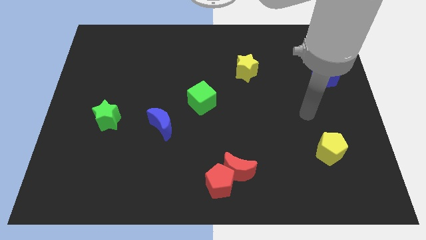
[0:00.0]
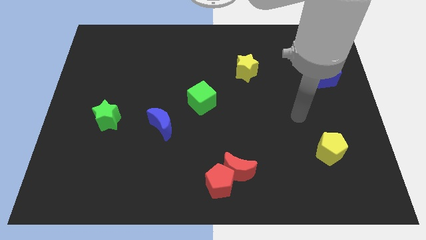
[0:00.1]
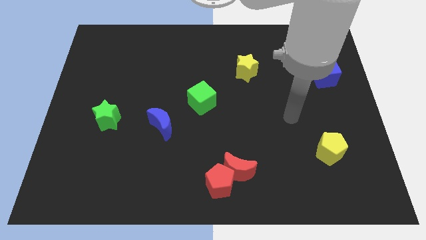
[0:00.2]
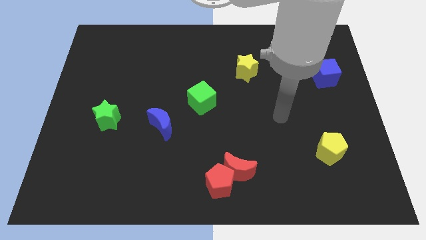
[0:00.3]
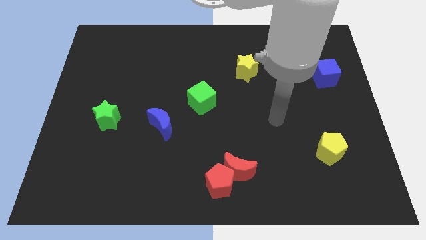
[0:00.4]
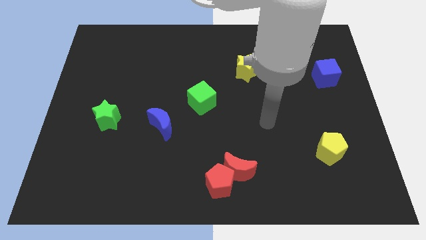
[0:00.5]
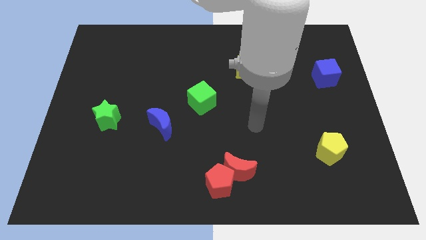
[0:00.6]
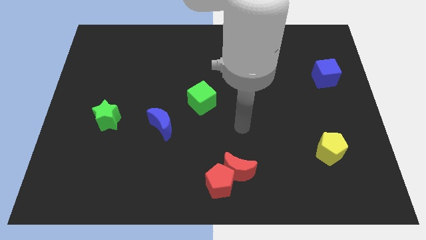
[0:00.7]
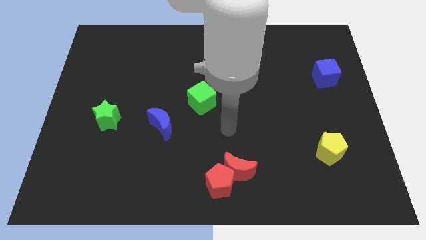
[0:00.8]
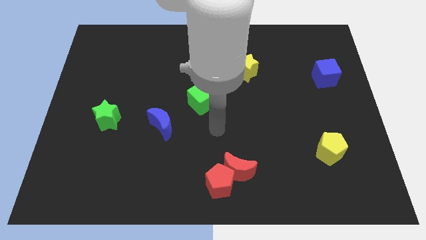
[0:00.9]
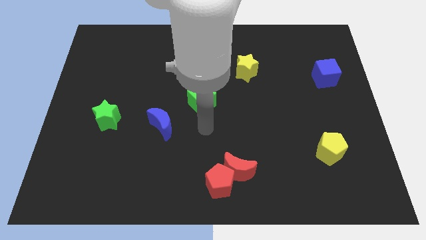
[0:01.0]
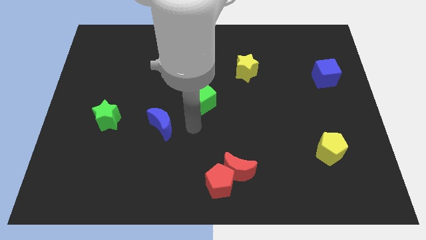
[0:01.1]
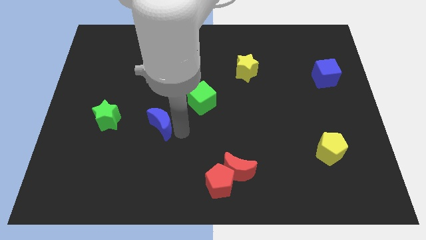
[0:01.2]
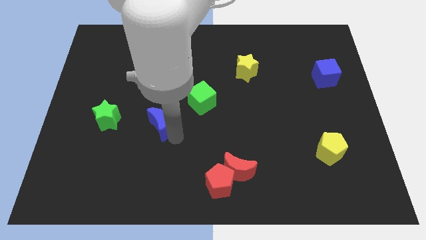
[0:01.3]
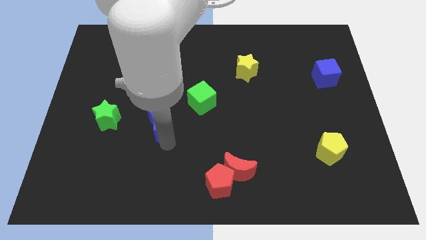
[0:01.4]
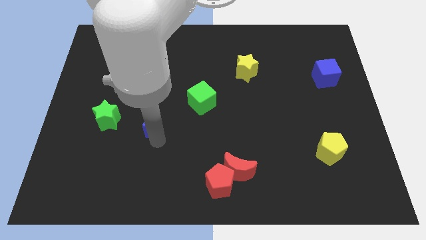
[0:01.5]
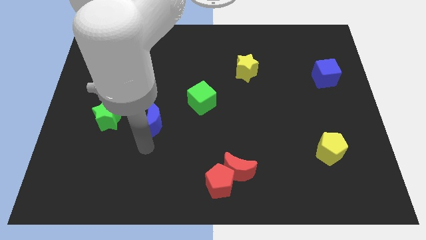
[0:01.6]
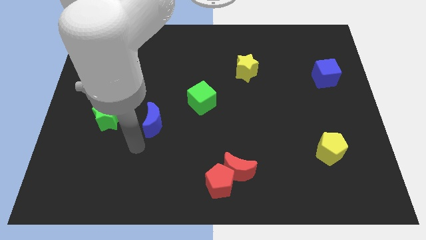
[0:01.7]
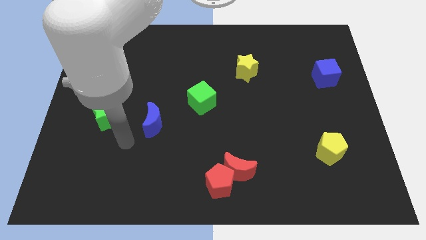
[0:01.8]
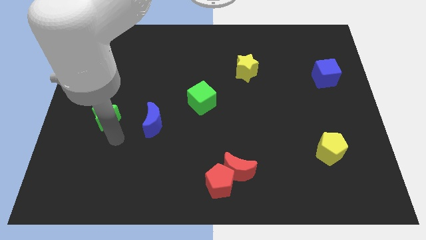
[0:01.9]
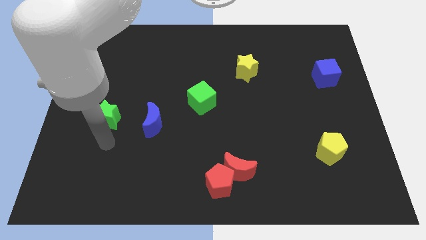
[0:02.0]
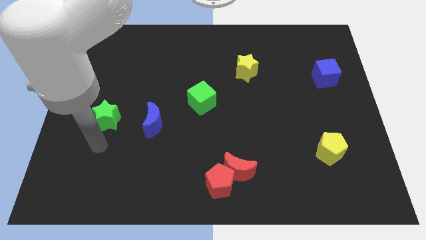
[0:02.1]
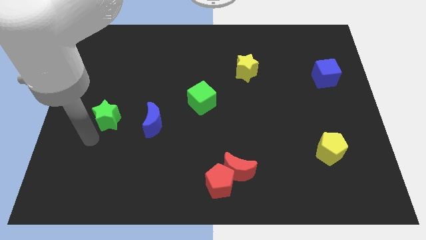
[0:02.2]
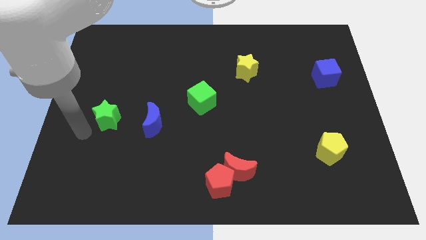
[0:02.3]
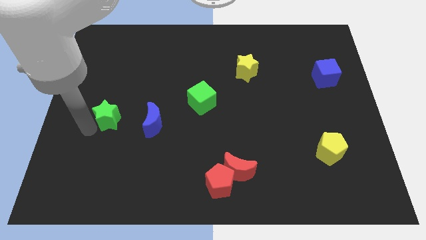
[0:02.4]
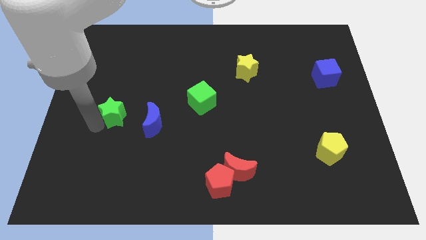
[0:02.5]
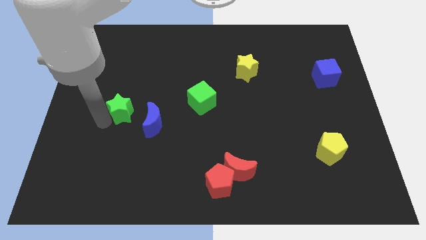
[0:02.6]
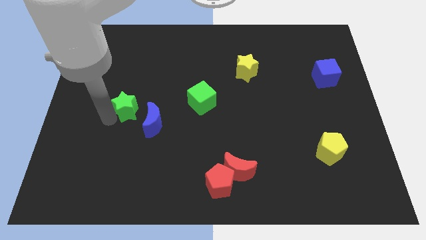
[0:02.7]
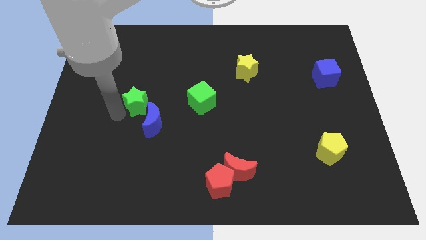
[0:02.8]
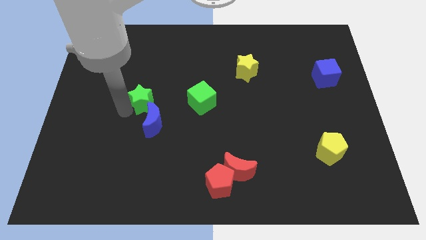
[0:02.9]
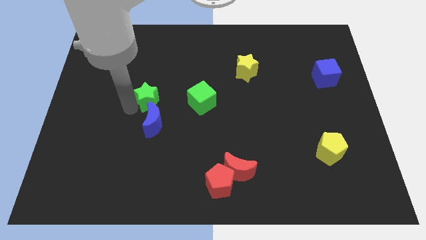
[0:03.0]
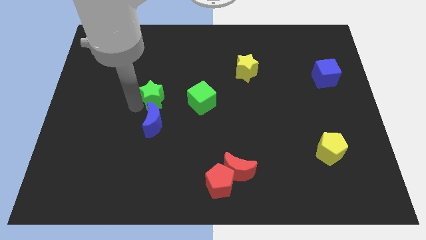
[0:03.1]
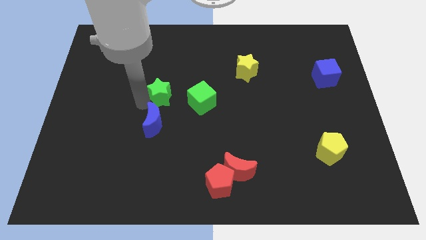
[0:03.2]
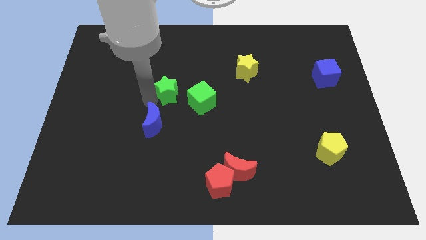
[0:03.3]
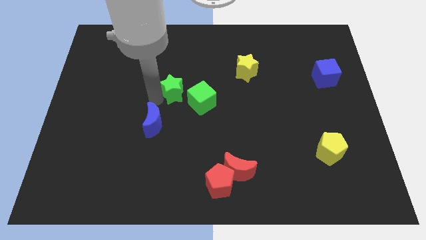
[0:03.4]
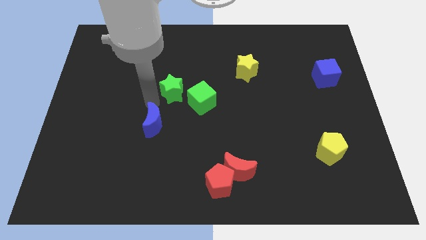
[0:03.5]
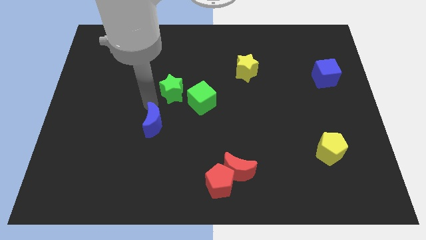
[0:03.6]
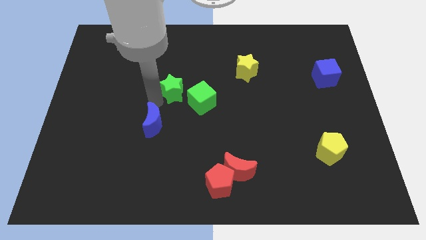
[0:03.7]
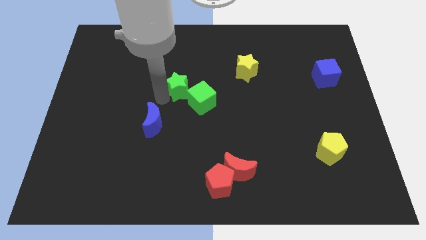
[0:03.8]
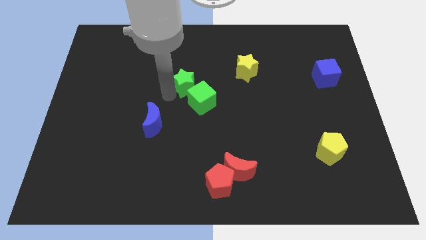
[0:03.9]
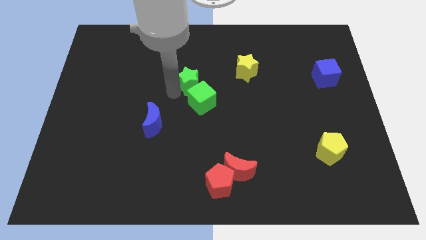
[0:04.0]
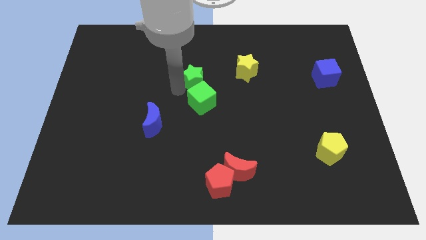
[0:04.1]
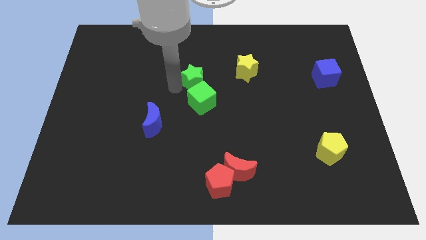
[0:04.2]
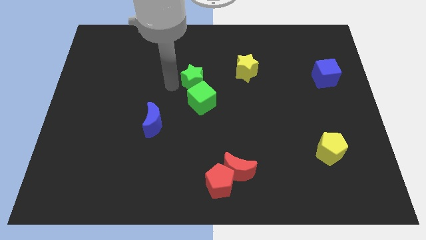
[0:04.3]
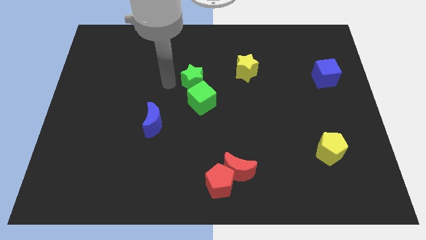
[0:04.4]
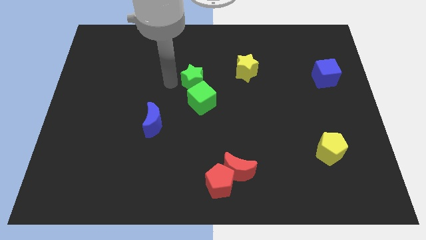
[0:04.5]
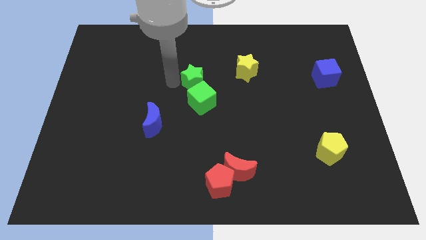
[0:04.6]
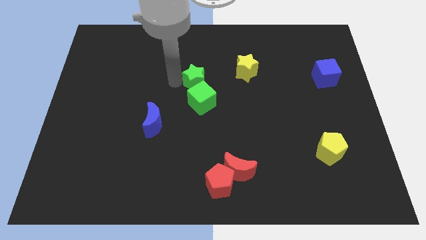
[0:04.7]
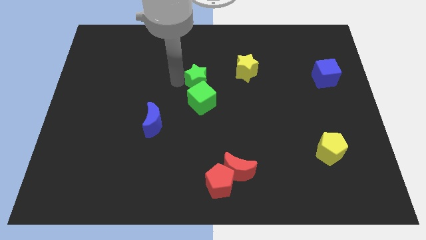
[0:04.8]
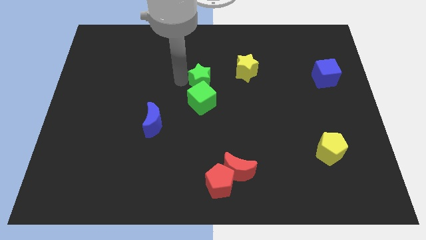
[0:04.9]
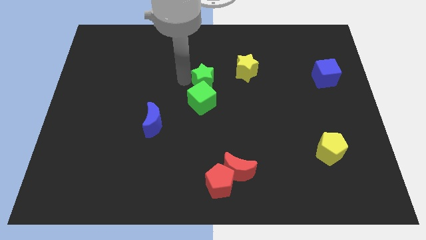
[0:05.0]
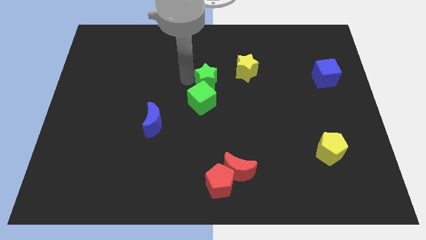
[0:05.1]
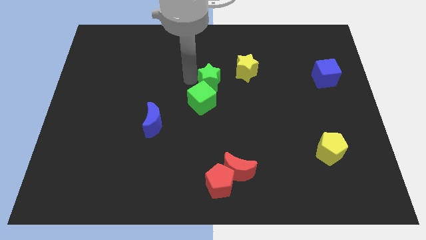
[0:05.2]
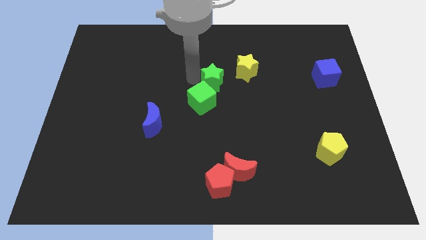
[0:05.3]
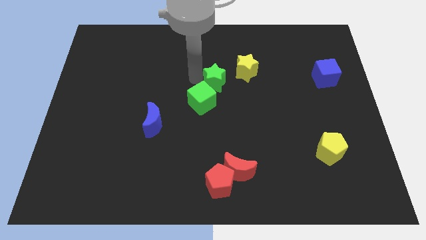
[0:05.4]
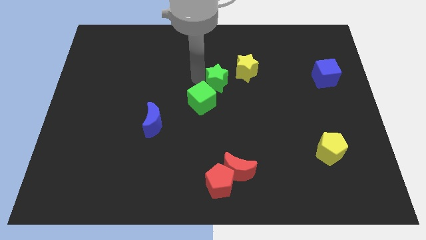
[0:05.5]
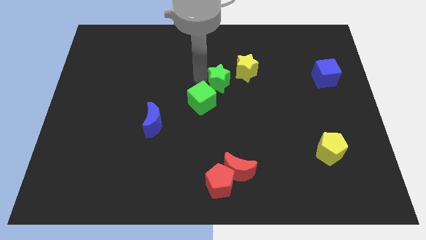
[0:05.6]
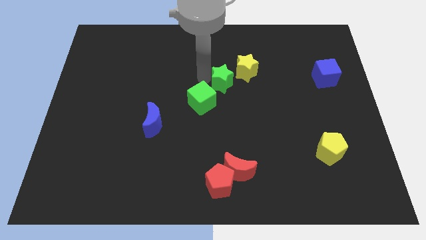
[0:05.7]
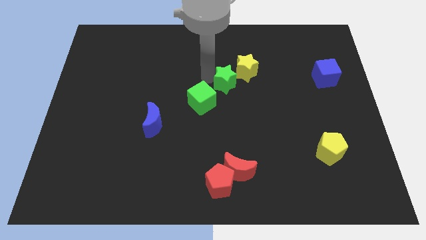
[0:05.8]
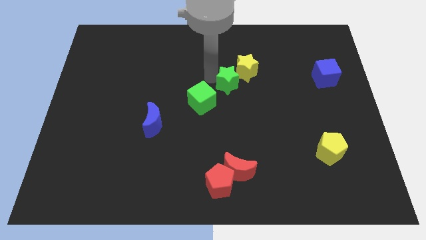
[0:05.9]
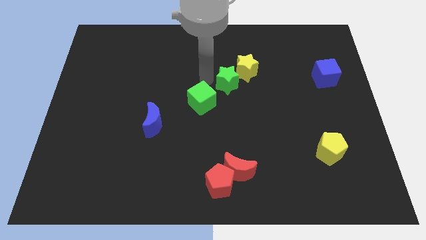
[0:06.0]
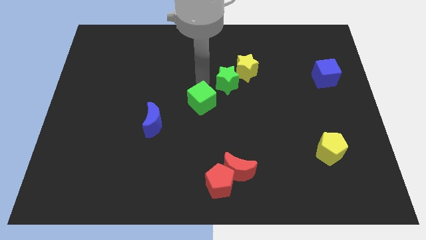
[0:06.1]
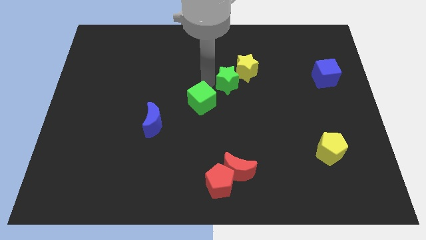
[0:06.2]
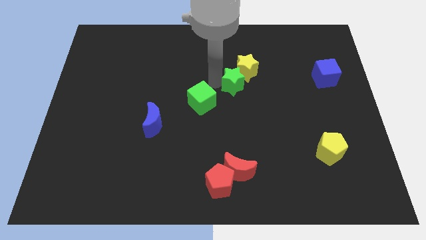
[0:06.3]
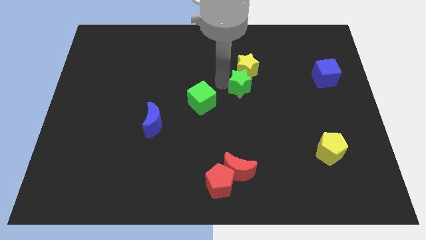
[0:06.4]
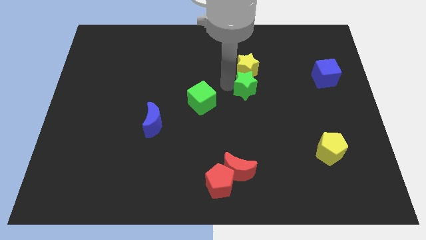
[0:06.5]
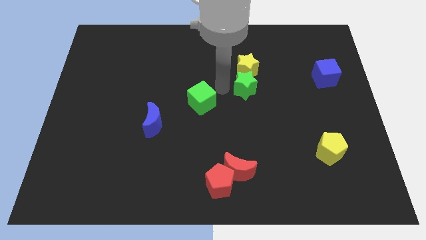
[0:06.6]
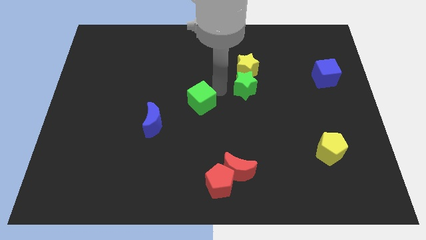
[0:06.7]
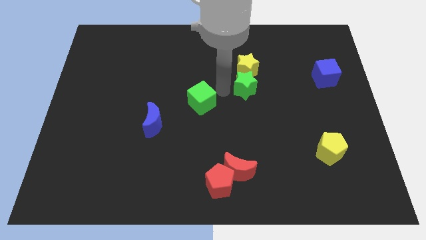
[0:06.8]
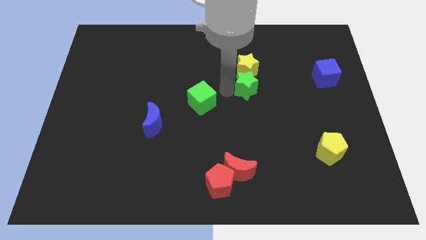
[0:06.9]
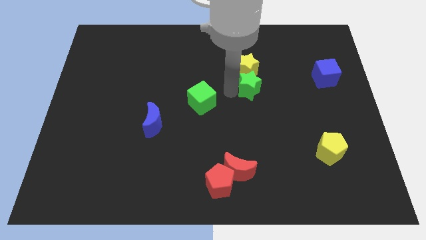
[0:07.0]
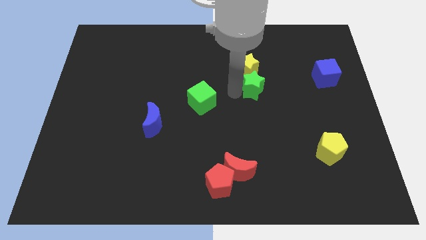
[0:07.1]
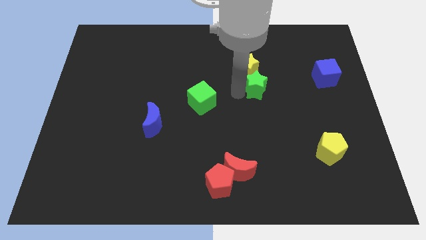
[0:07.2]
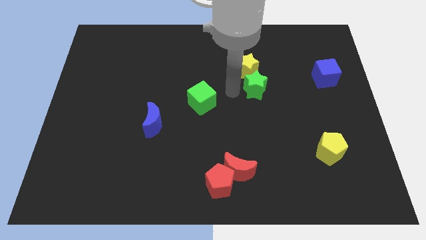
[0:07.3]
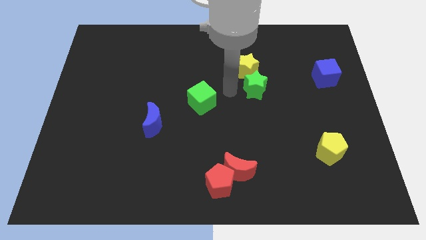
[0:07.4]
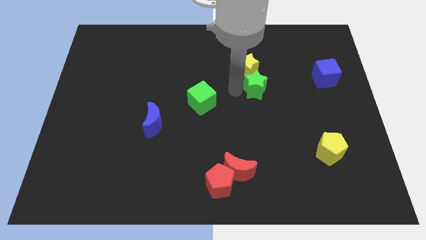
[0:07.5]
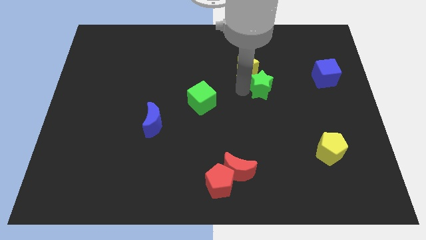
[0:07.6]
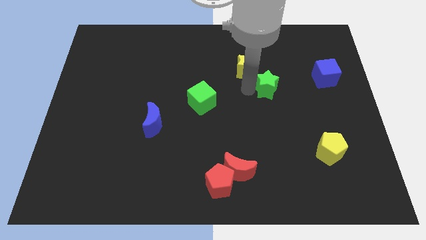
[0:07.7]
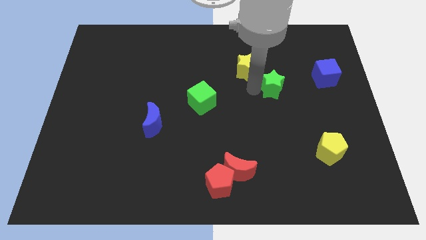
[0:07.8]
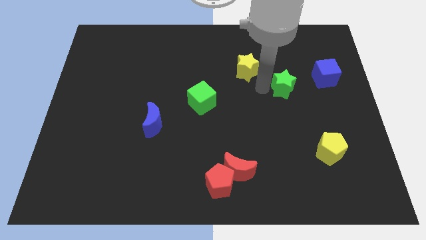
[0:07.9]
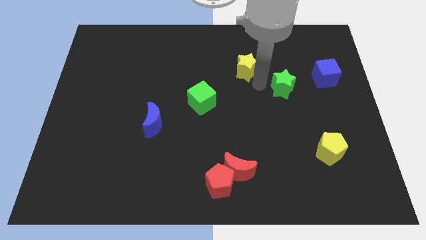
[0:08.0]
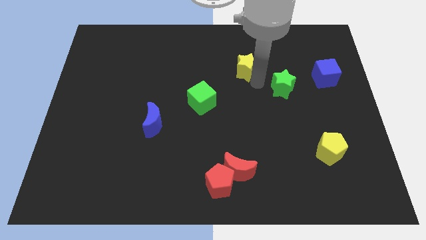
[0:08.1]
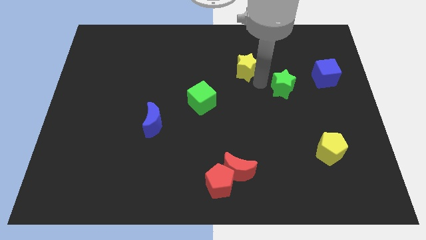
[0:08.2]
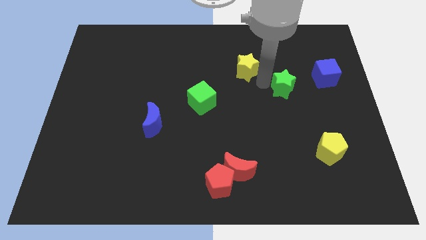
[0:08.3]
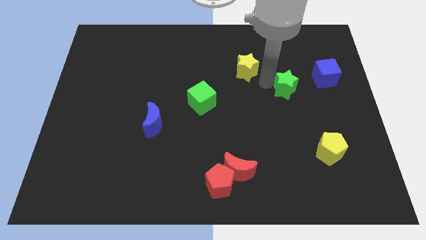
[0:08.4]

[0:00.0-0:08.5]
move the green star to the bottom left side of the blue cube
